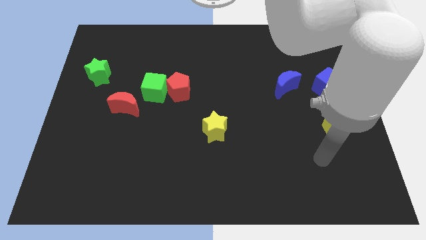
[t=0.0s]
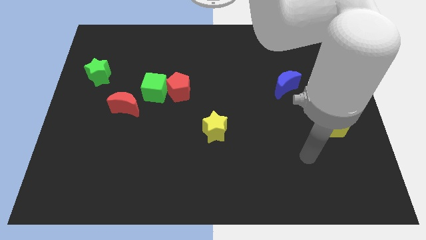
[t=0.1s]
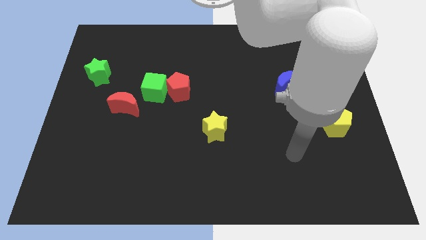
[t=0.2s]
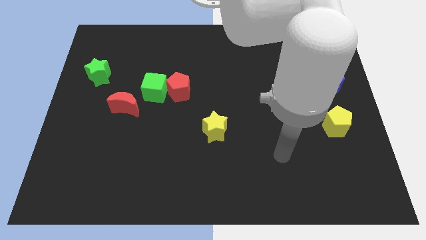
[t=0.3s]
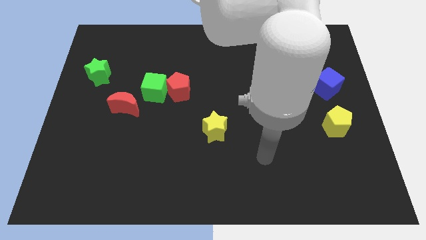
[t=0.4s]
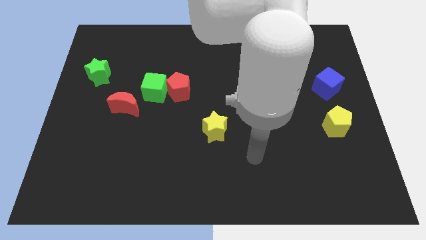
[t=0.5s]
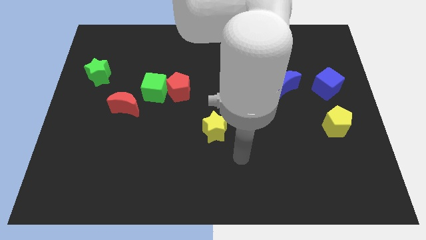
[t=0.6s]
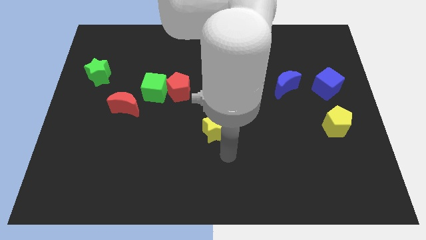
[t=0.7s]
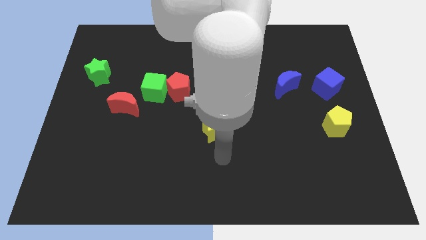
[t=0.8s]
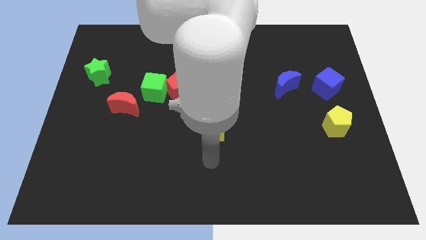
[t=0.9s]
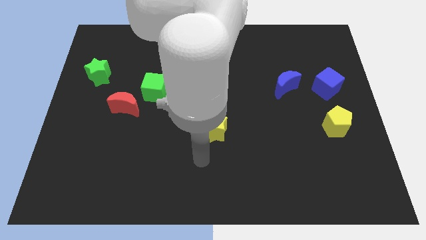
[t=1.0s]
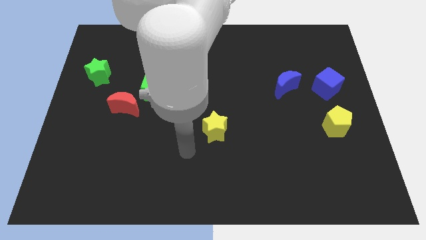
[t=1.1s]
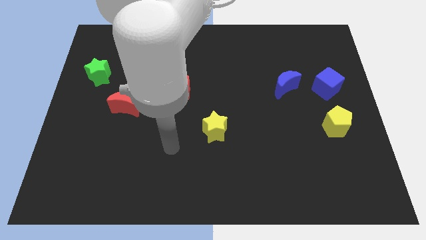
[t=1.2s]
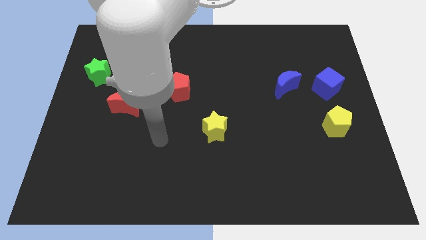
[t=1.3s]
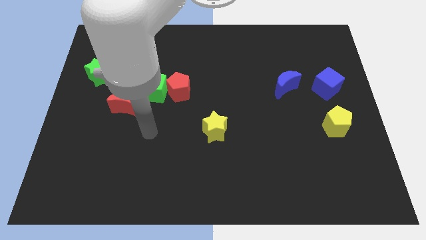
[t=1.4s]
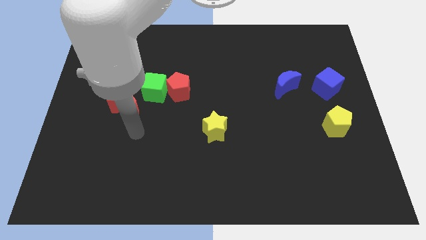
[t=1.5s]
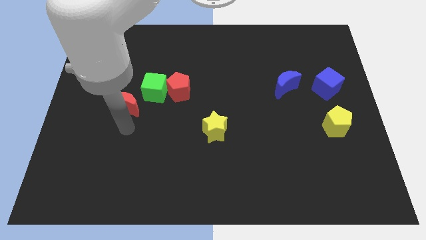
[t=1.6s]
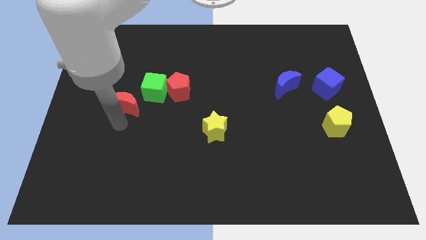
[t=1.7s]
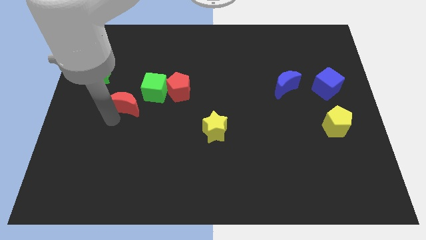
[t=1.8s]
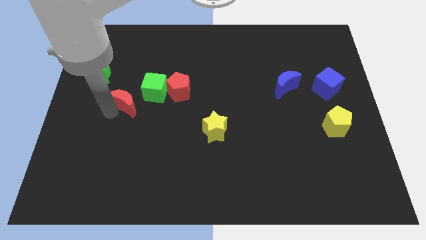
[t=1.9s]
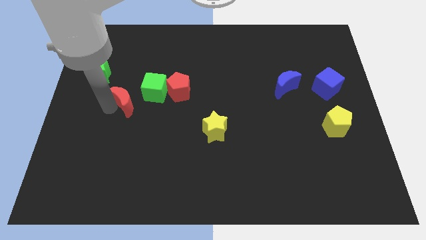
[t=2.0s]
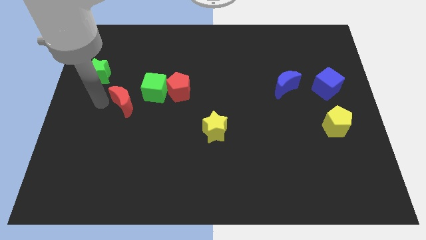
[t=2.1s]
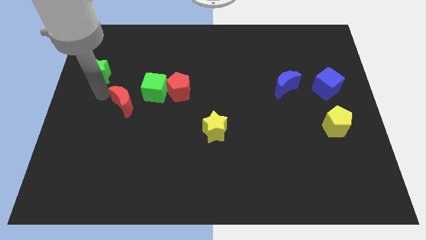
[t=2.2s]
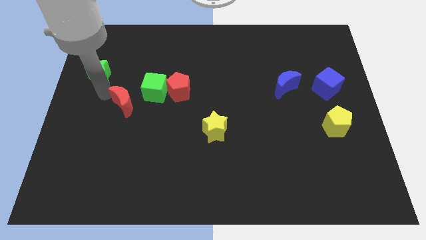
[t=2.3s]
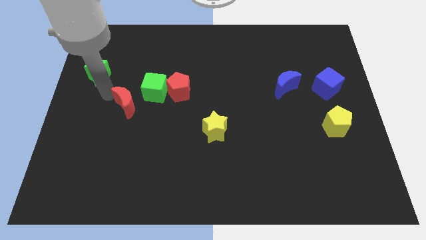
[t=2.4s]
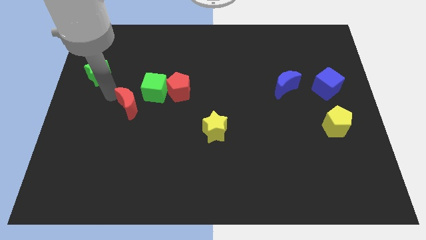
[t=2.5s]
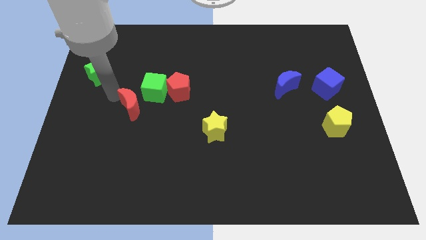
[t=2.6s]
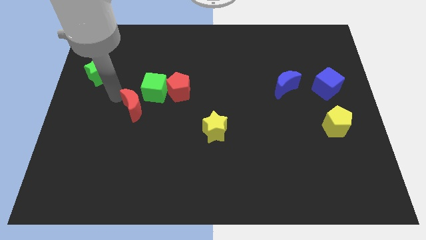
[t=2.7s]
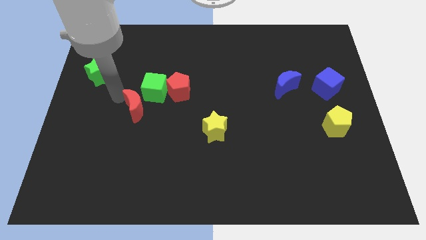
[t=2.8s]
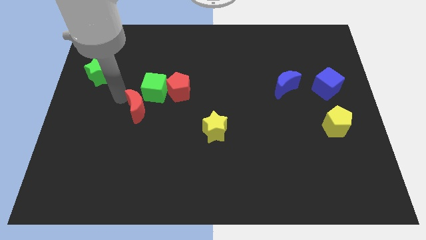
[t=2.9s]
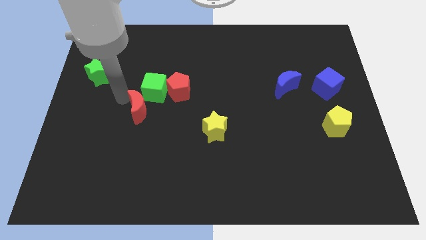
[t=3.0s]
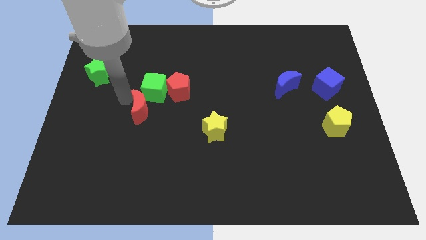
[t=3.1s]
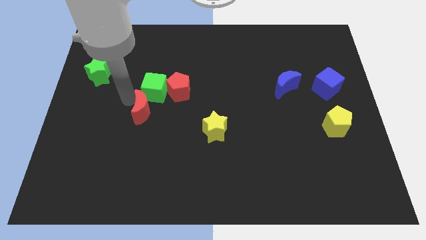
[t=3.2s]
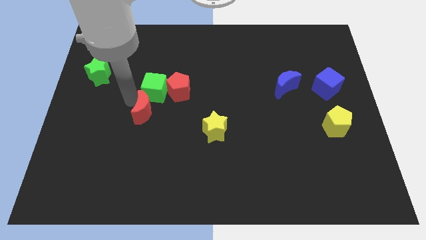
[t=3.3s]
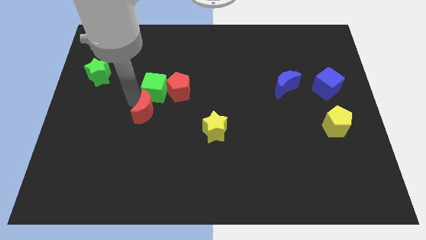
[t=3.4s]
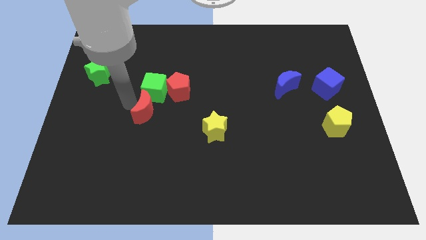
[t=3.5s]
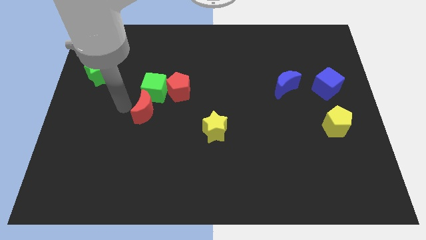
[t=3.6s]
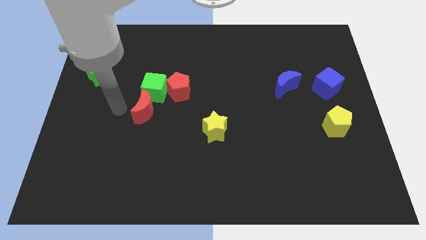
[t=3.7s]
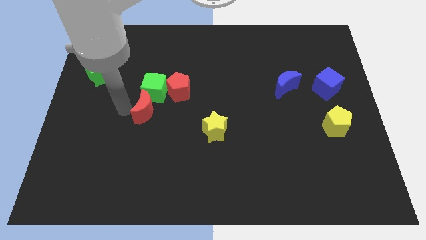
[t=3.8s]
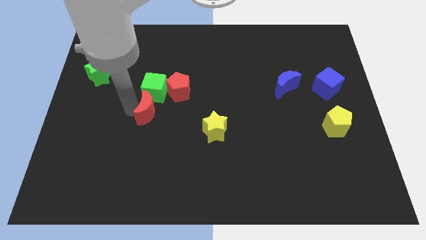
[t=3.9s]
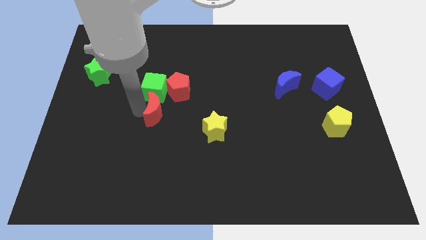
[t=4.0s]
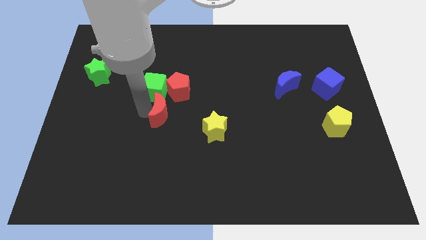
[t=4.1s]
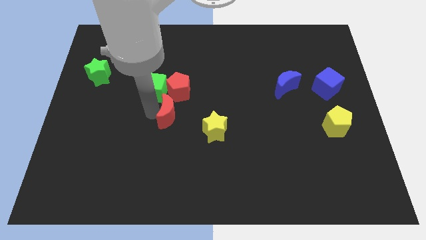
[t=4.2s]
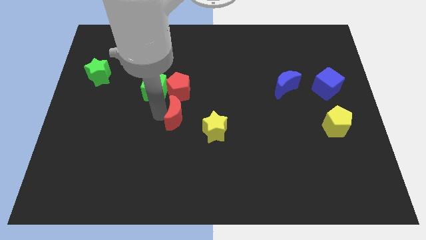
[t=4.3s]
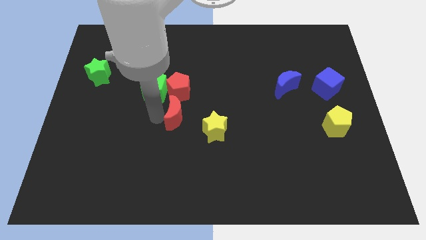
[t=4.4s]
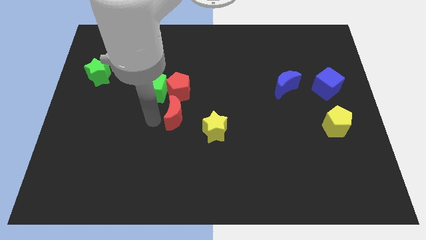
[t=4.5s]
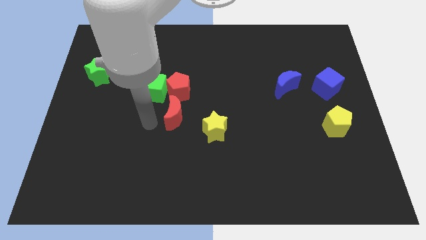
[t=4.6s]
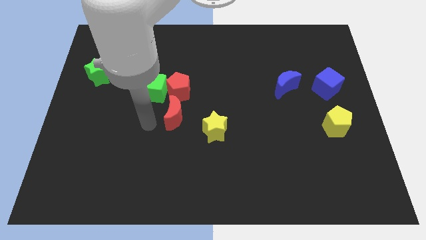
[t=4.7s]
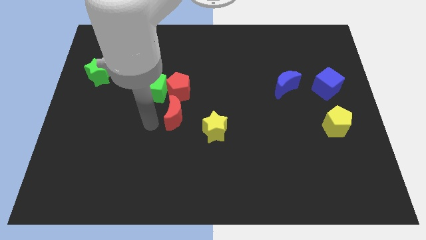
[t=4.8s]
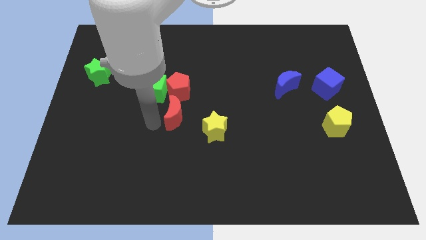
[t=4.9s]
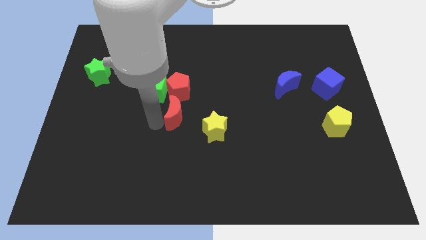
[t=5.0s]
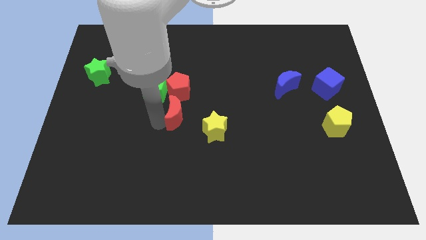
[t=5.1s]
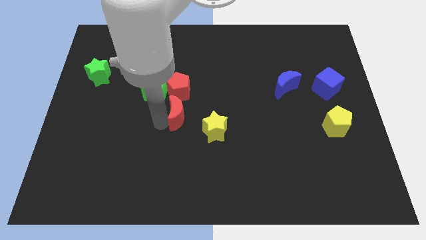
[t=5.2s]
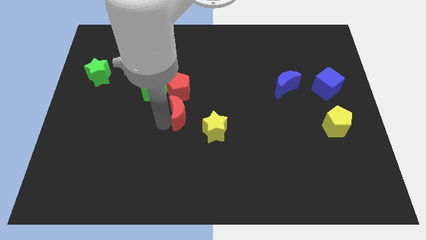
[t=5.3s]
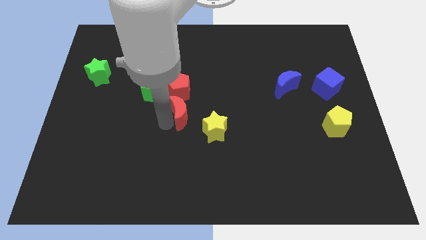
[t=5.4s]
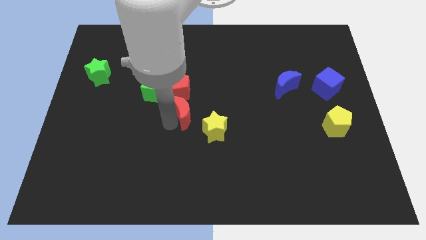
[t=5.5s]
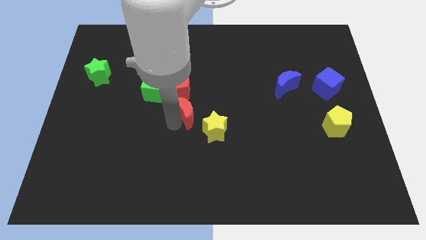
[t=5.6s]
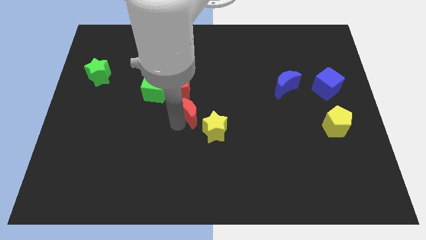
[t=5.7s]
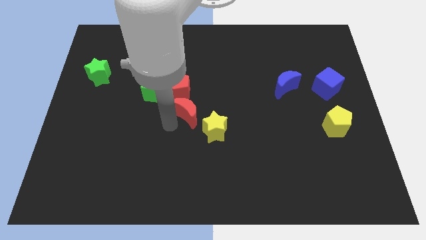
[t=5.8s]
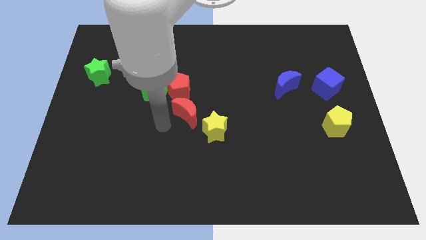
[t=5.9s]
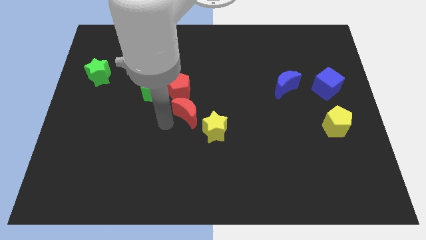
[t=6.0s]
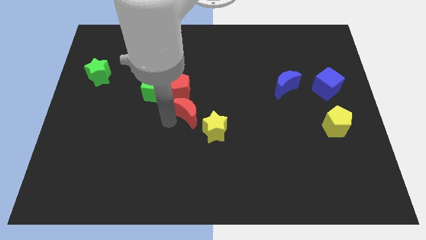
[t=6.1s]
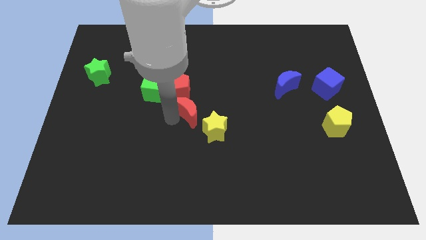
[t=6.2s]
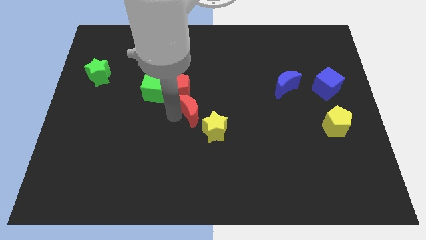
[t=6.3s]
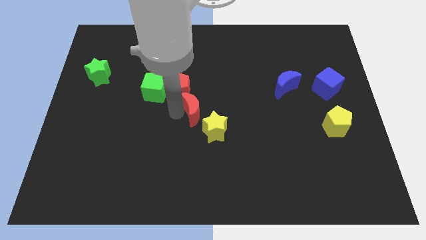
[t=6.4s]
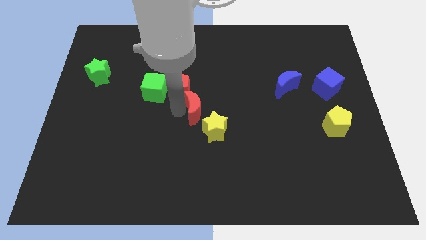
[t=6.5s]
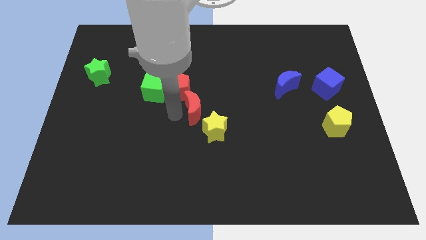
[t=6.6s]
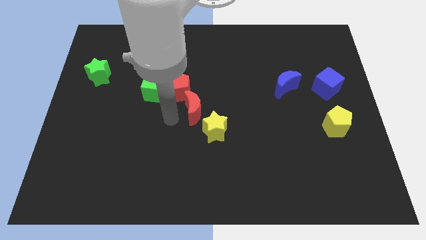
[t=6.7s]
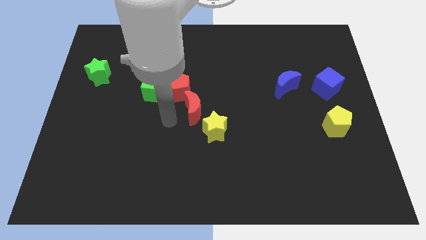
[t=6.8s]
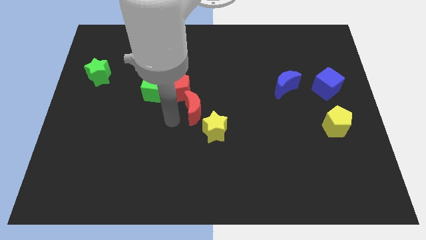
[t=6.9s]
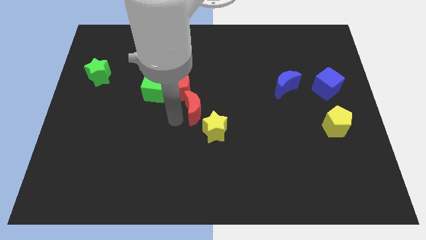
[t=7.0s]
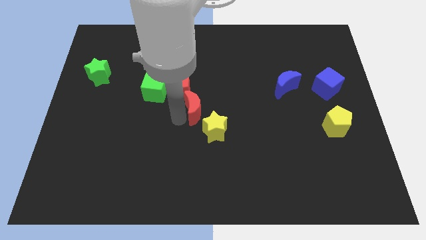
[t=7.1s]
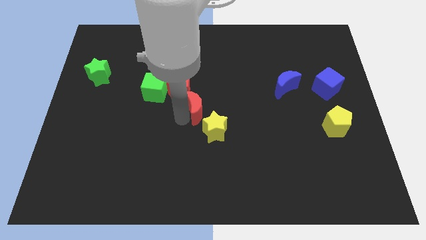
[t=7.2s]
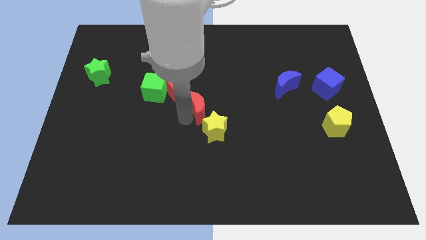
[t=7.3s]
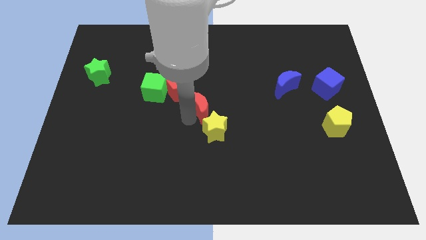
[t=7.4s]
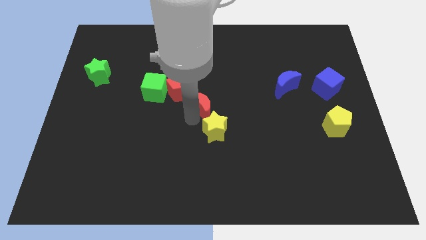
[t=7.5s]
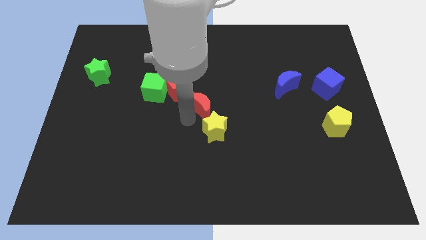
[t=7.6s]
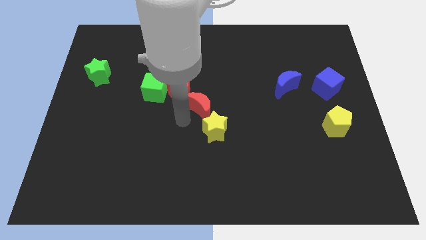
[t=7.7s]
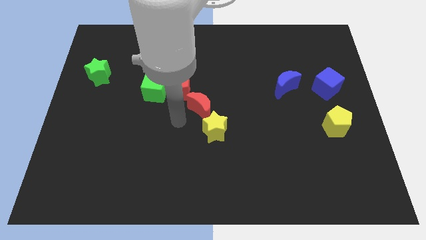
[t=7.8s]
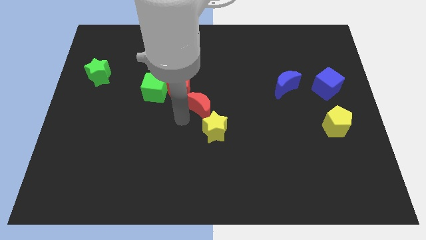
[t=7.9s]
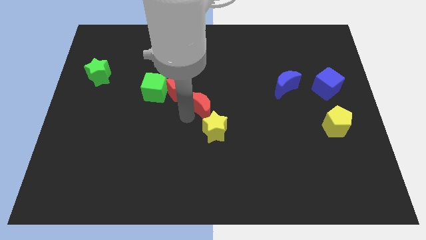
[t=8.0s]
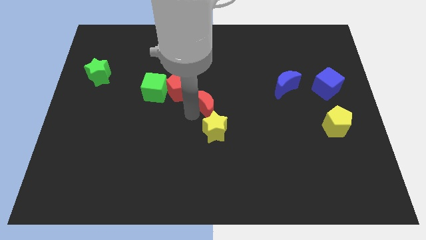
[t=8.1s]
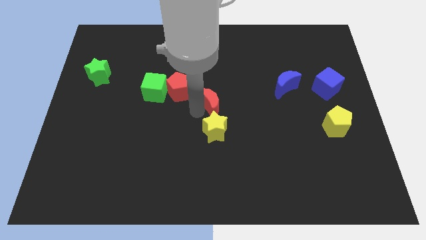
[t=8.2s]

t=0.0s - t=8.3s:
push the red moon to the right
